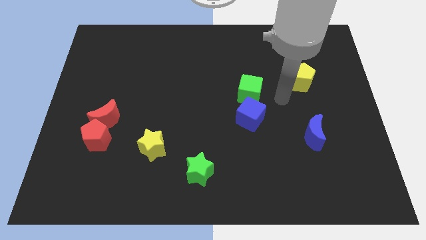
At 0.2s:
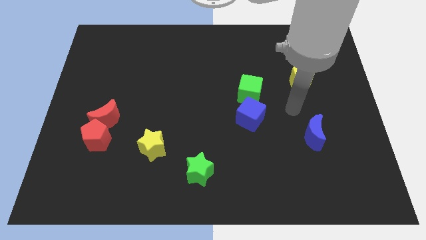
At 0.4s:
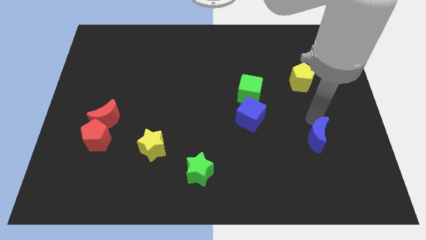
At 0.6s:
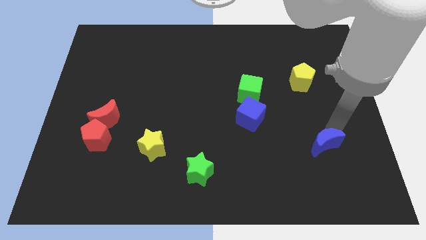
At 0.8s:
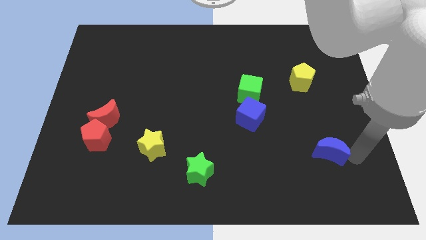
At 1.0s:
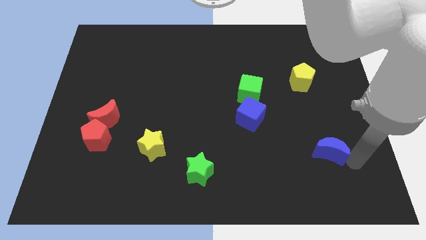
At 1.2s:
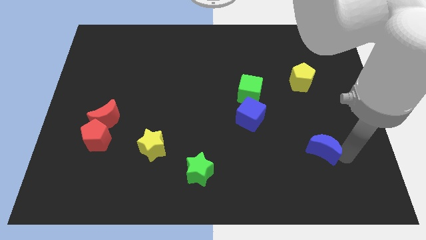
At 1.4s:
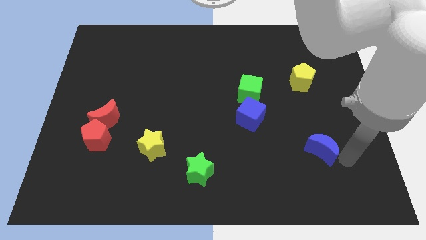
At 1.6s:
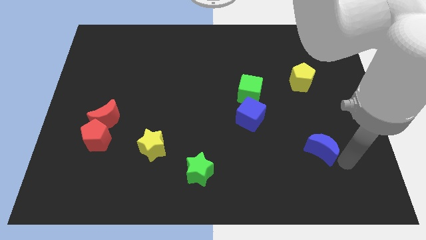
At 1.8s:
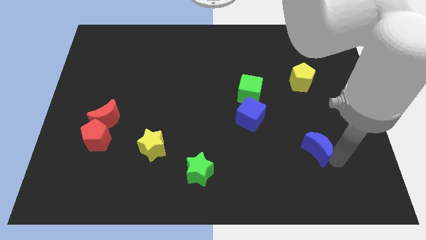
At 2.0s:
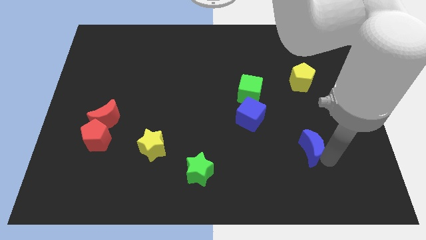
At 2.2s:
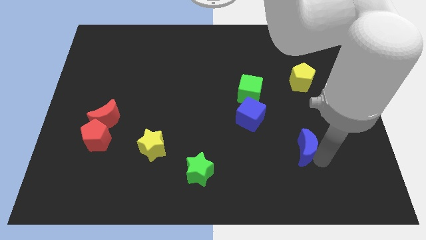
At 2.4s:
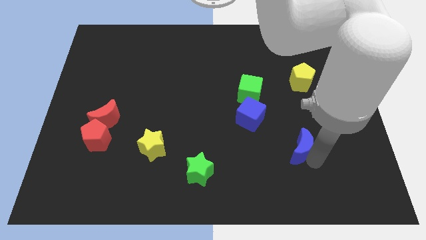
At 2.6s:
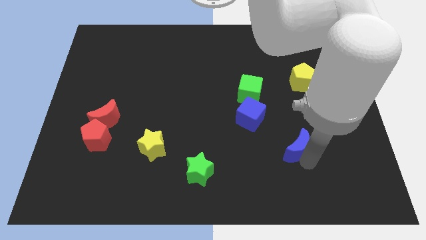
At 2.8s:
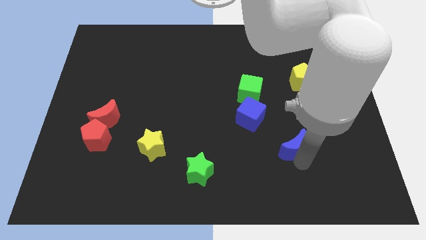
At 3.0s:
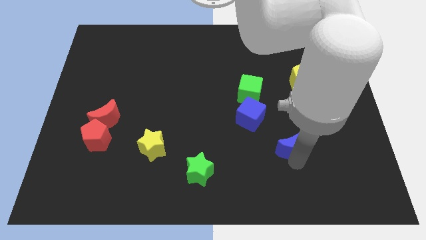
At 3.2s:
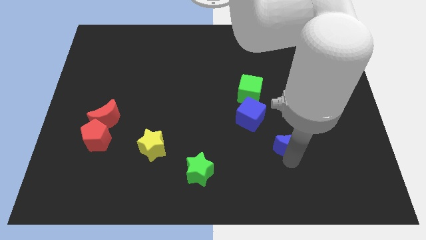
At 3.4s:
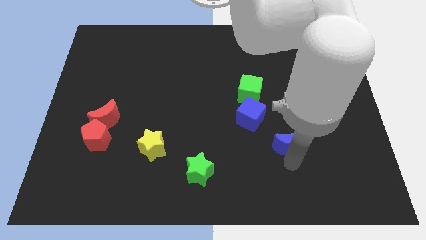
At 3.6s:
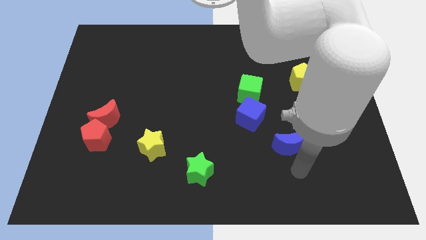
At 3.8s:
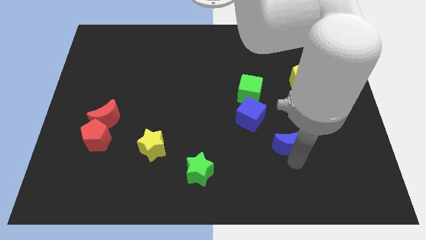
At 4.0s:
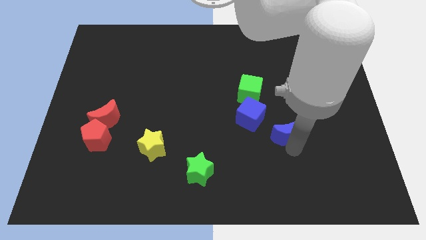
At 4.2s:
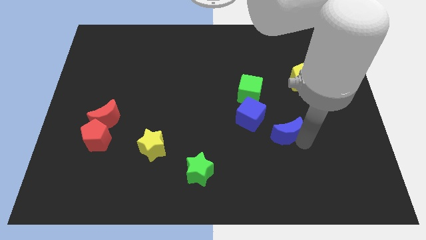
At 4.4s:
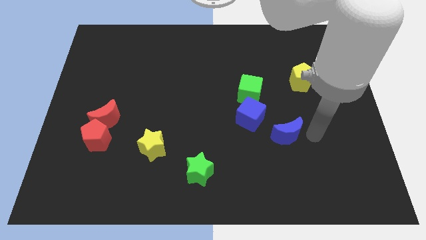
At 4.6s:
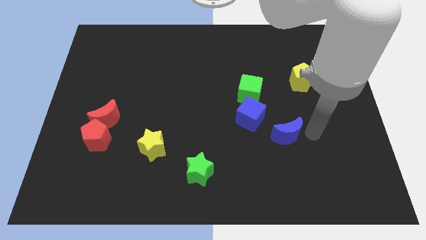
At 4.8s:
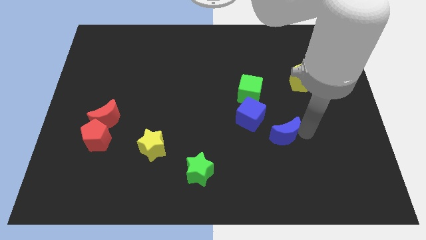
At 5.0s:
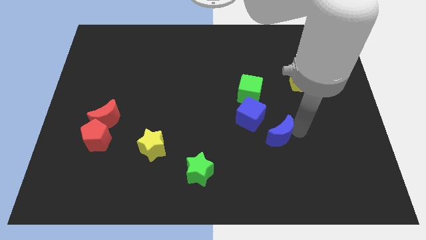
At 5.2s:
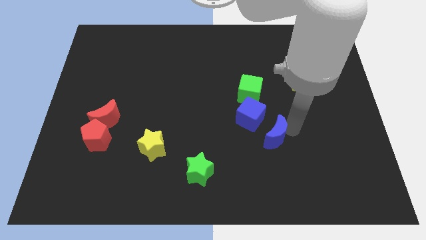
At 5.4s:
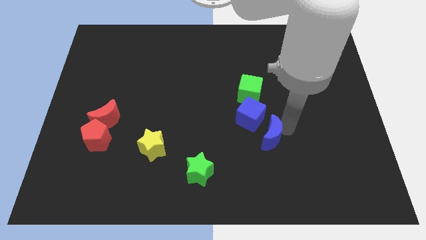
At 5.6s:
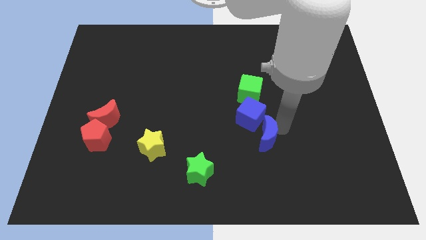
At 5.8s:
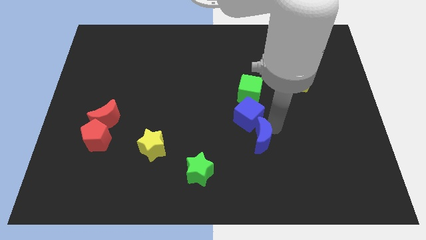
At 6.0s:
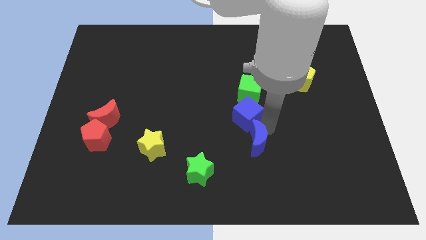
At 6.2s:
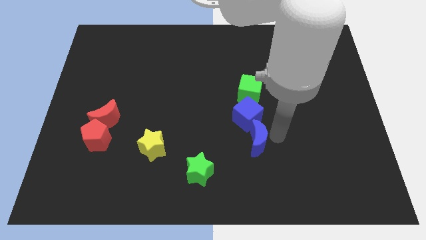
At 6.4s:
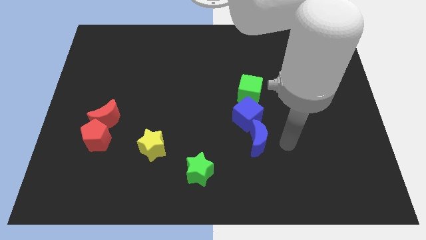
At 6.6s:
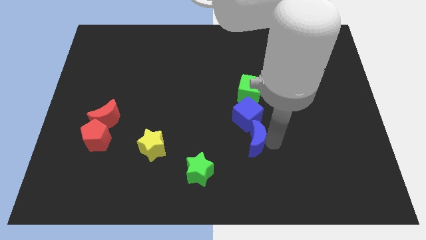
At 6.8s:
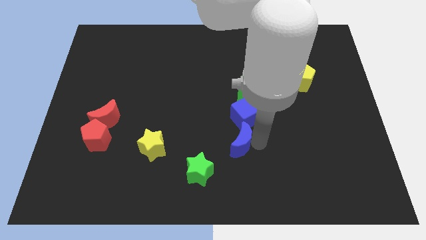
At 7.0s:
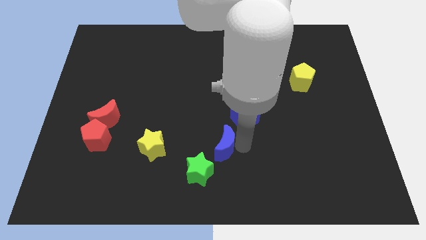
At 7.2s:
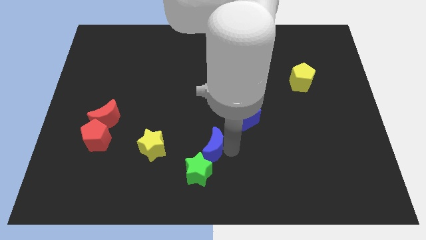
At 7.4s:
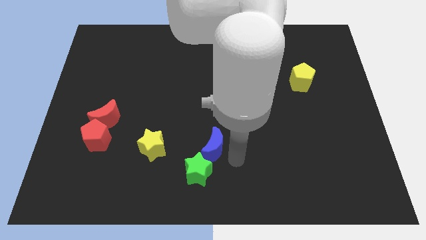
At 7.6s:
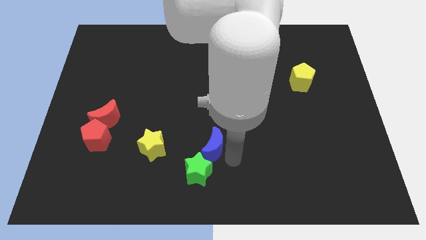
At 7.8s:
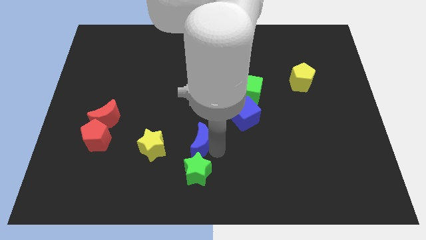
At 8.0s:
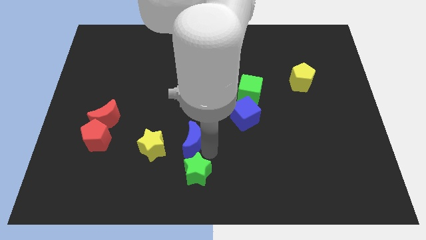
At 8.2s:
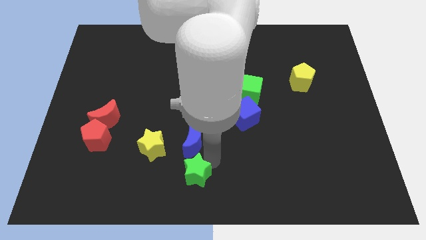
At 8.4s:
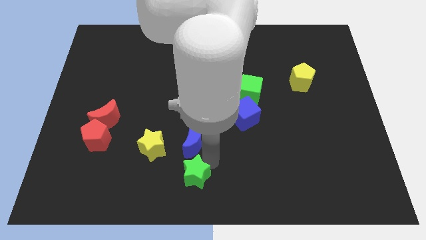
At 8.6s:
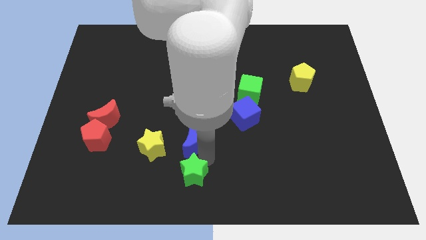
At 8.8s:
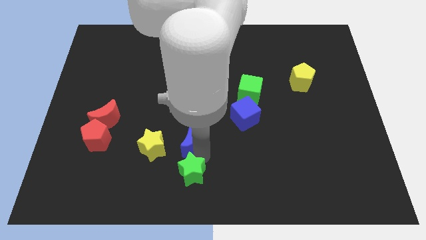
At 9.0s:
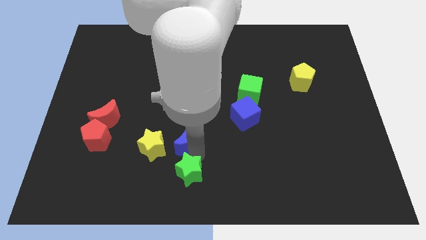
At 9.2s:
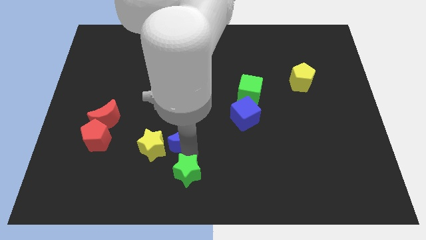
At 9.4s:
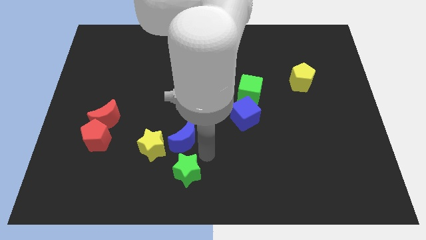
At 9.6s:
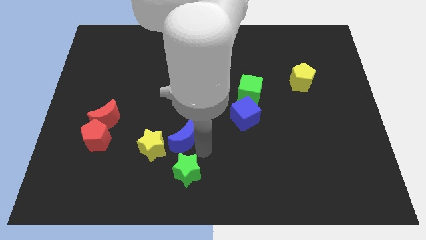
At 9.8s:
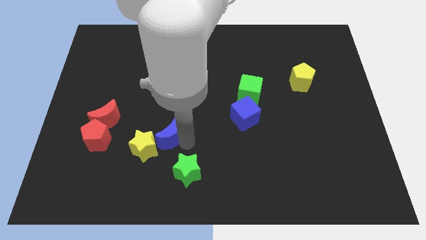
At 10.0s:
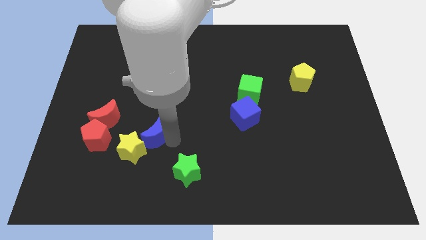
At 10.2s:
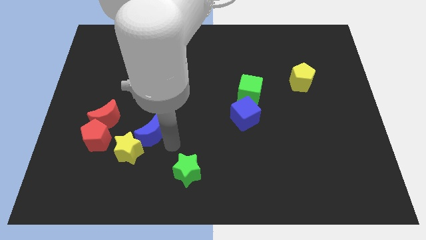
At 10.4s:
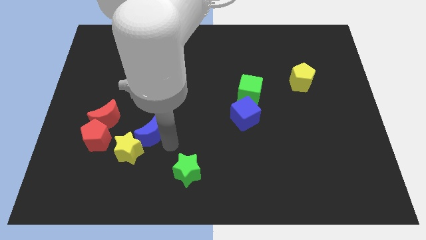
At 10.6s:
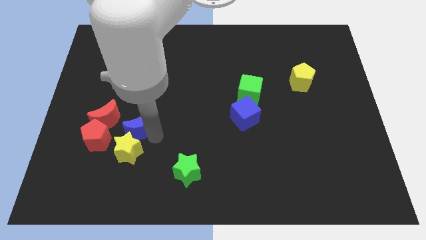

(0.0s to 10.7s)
move the blue moon to the top right of the red pentagon

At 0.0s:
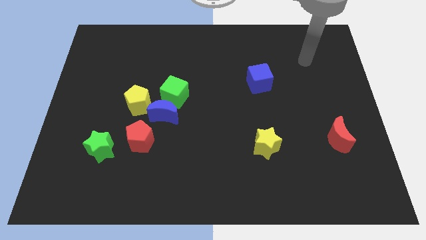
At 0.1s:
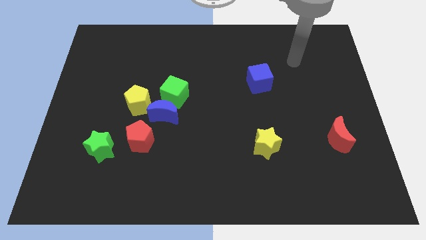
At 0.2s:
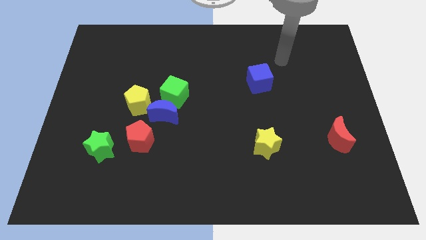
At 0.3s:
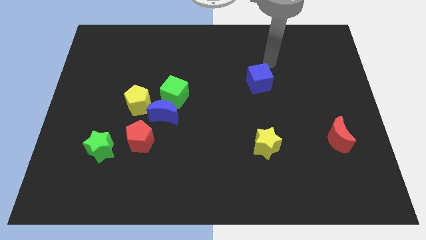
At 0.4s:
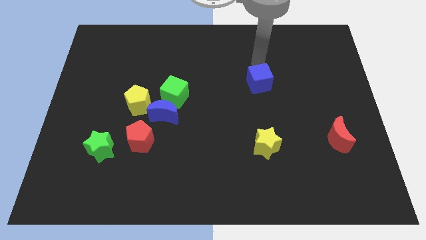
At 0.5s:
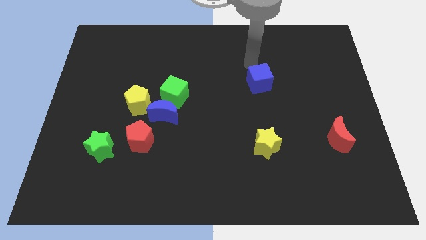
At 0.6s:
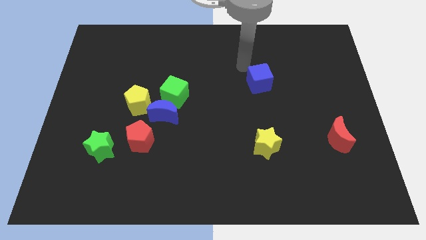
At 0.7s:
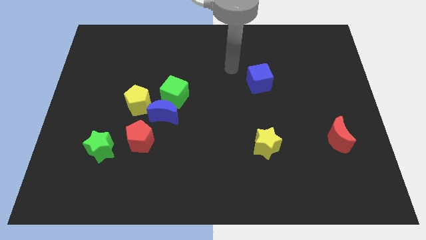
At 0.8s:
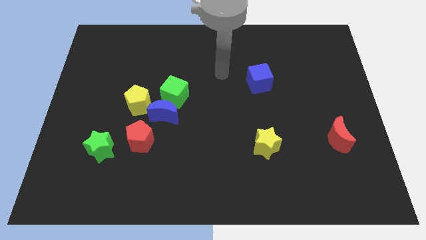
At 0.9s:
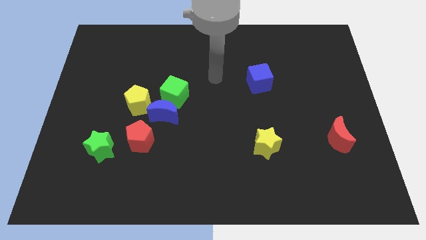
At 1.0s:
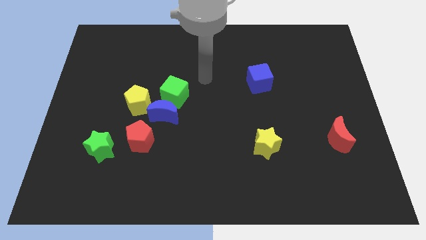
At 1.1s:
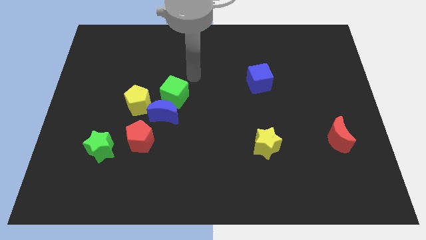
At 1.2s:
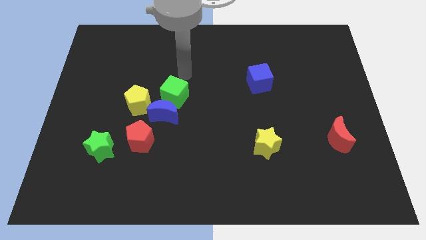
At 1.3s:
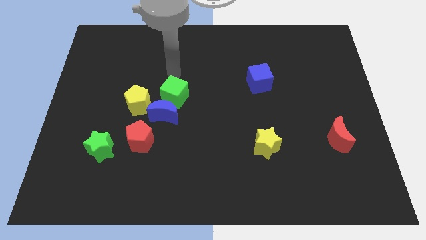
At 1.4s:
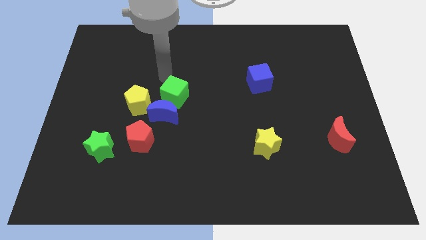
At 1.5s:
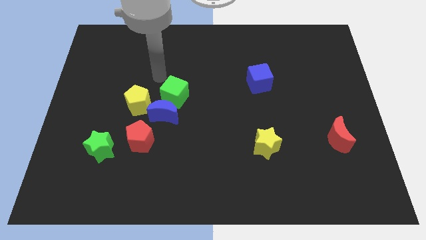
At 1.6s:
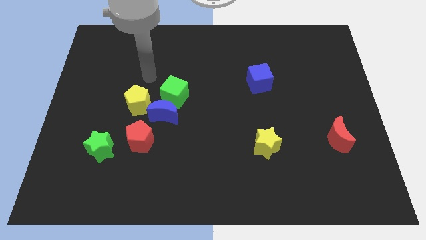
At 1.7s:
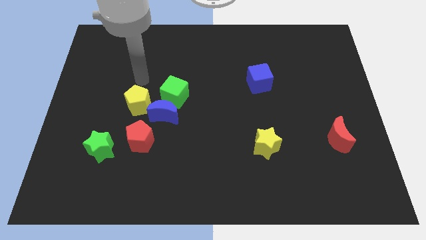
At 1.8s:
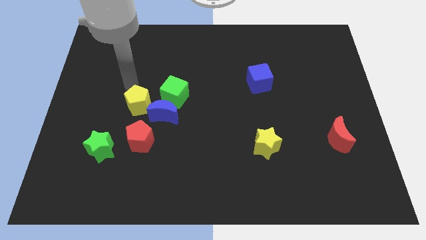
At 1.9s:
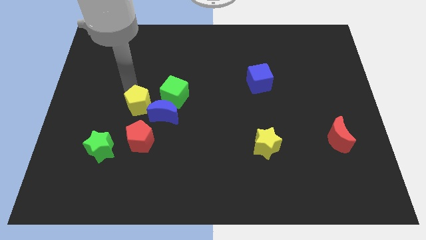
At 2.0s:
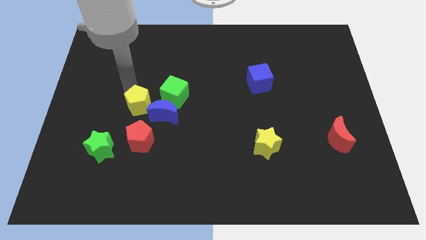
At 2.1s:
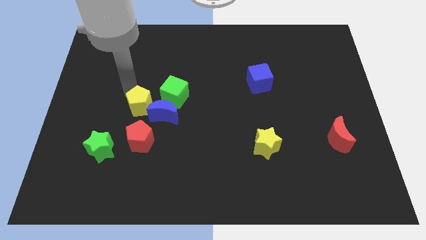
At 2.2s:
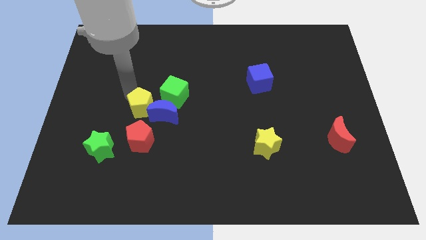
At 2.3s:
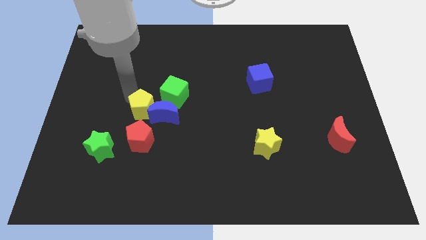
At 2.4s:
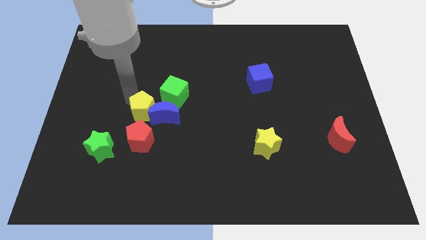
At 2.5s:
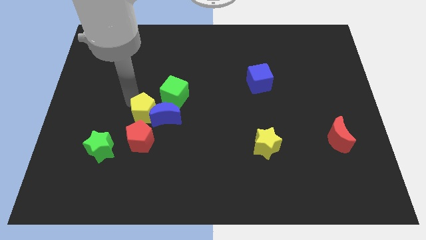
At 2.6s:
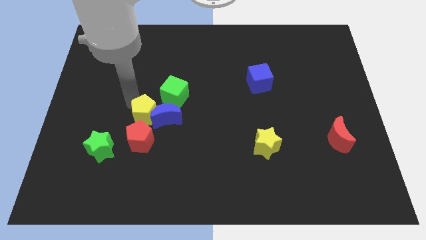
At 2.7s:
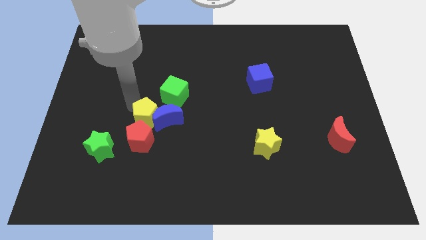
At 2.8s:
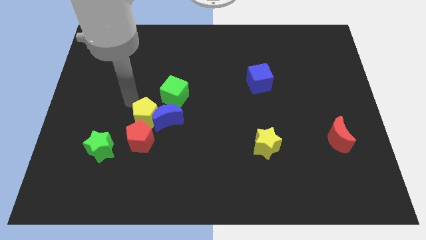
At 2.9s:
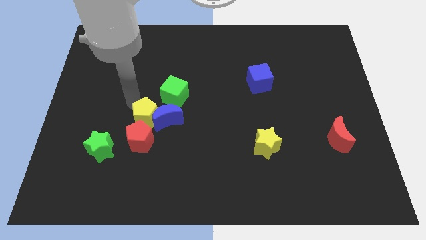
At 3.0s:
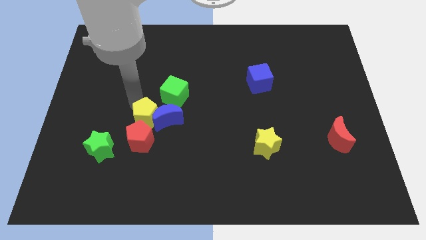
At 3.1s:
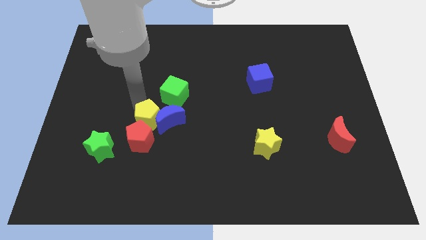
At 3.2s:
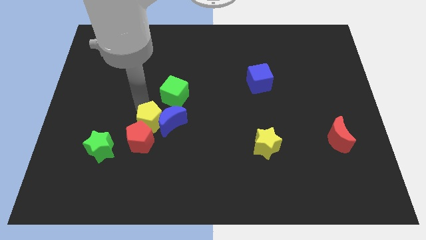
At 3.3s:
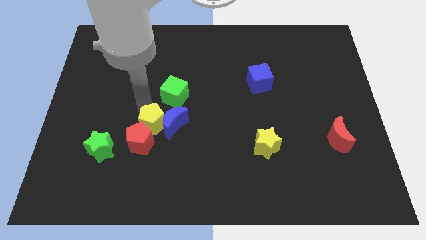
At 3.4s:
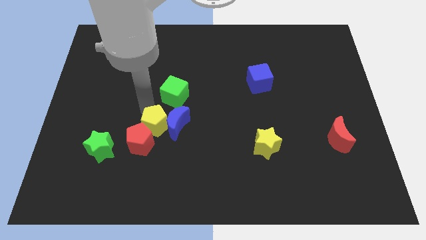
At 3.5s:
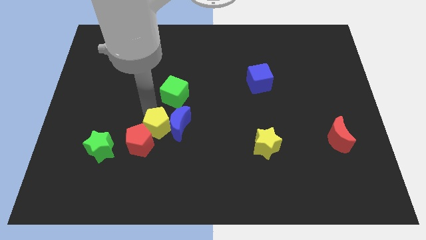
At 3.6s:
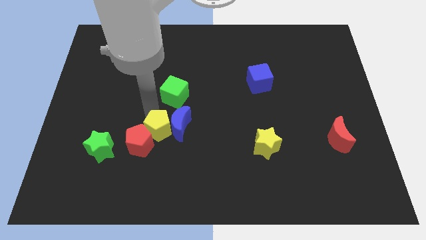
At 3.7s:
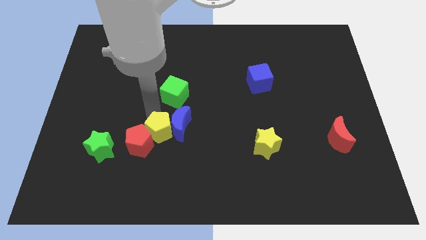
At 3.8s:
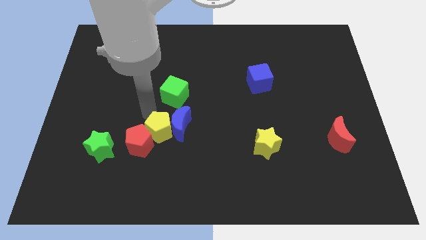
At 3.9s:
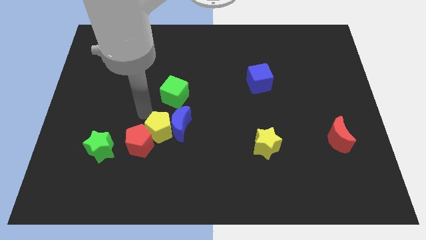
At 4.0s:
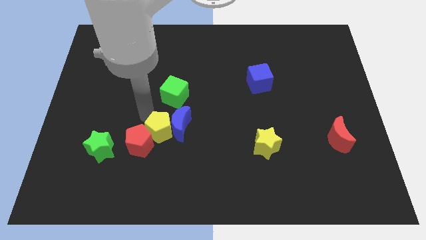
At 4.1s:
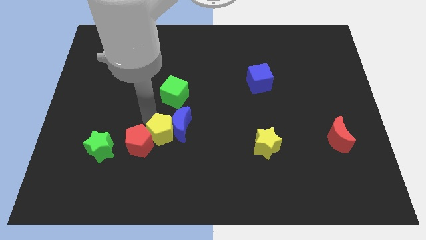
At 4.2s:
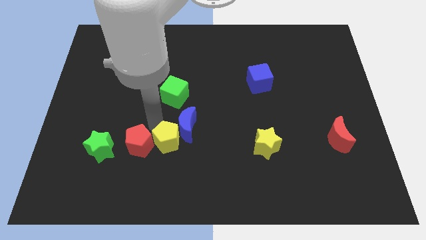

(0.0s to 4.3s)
move the yellow pentagon below the blue moon
